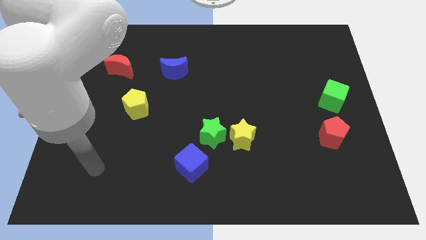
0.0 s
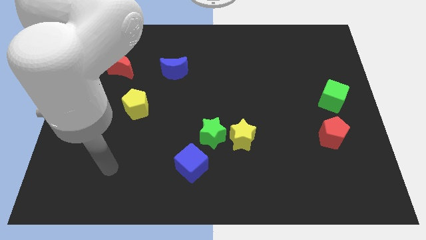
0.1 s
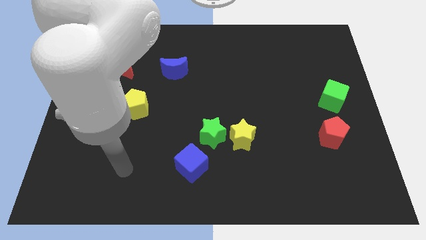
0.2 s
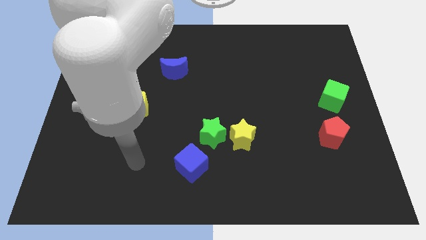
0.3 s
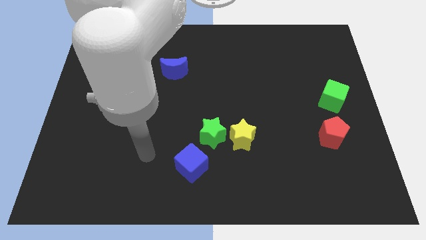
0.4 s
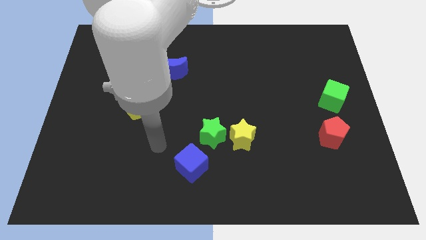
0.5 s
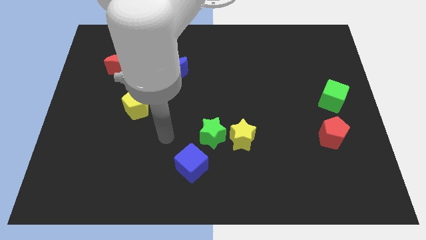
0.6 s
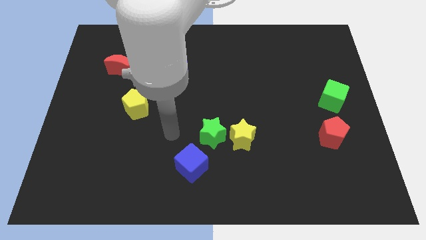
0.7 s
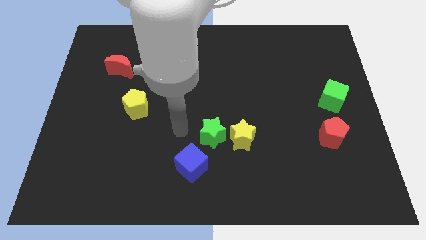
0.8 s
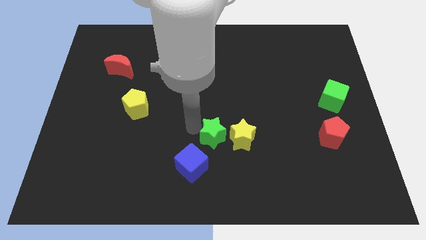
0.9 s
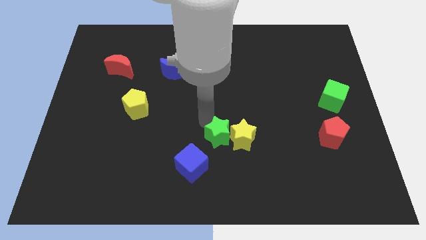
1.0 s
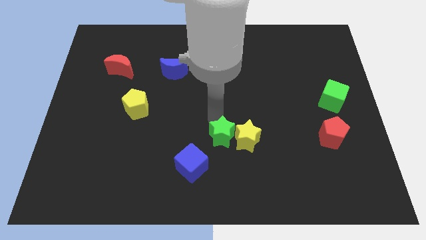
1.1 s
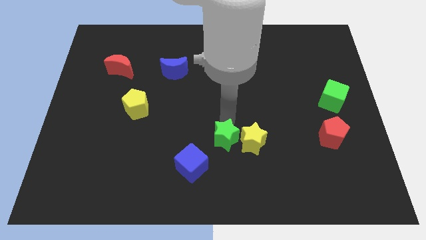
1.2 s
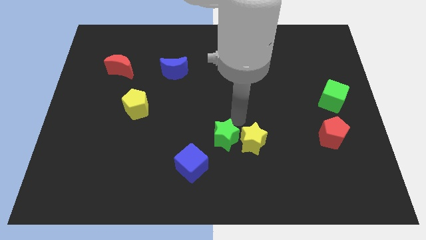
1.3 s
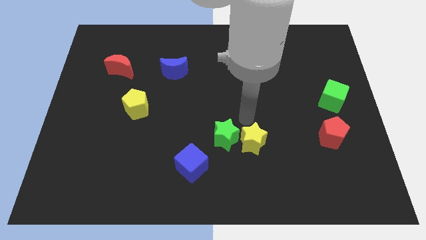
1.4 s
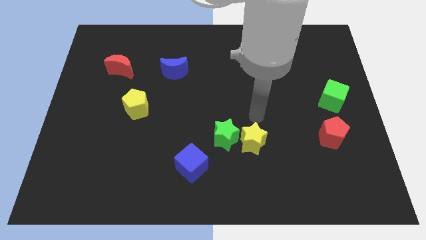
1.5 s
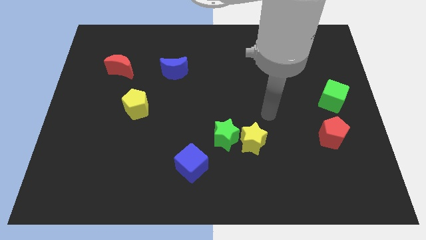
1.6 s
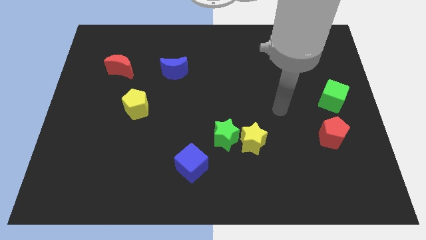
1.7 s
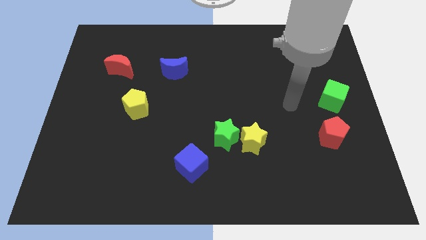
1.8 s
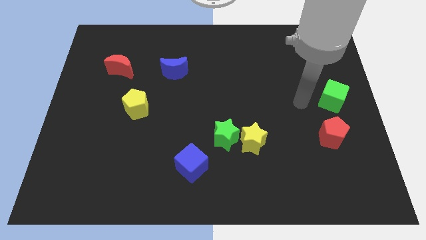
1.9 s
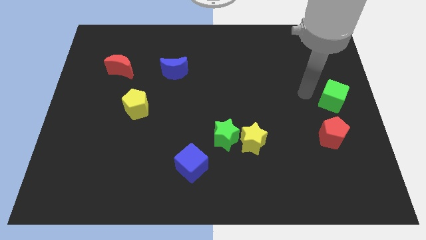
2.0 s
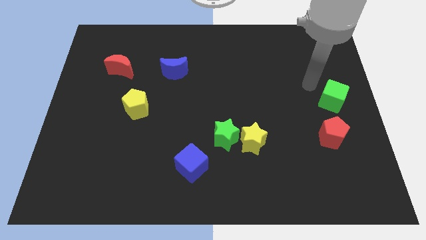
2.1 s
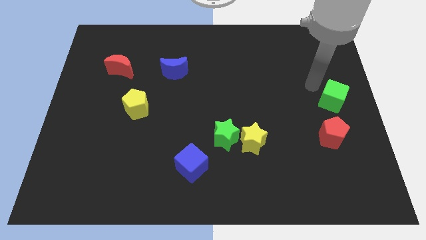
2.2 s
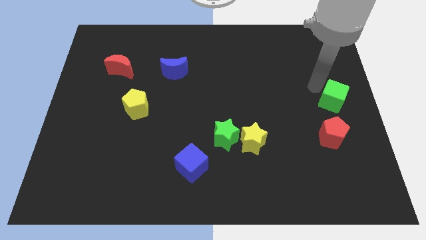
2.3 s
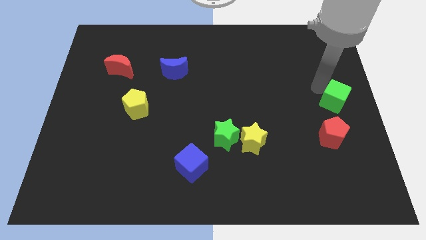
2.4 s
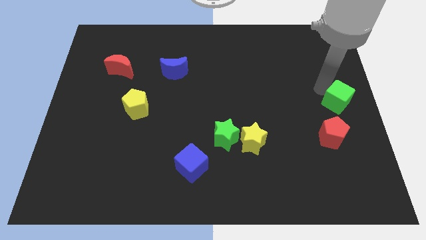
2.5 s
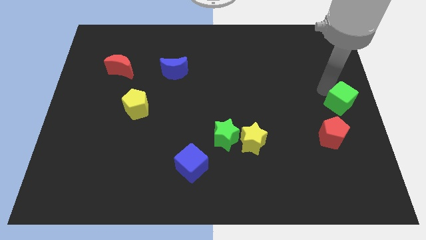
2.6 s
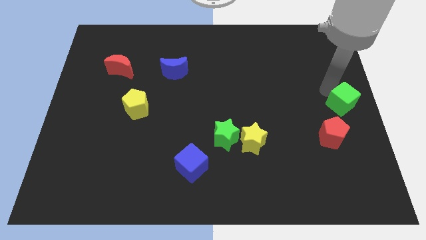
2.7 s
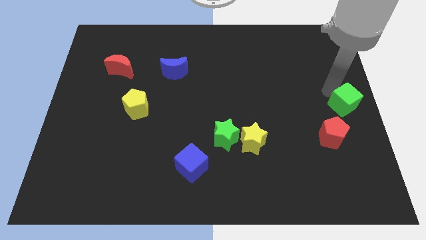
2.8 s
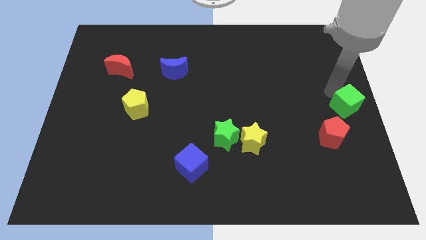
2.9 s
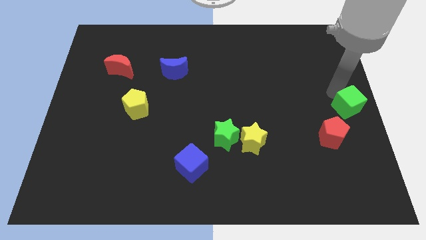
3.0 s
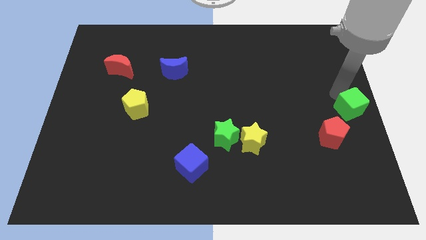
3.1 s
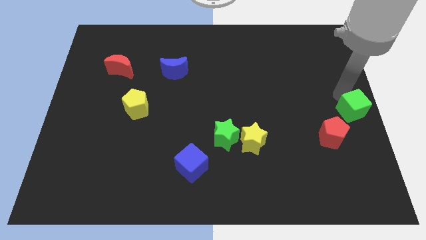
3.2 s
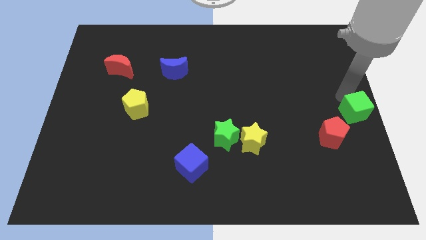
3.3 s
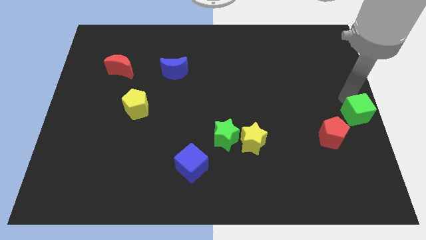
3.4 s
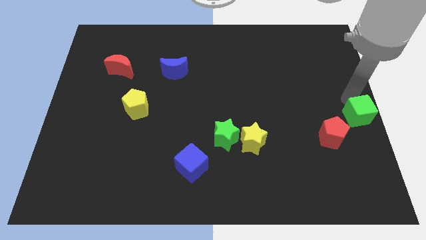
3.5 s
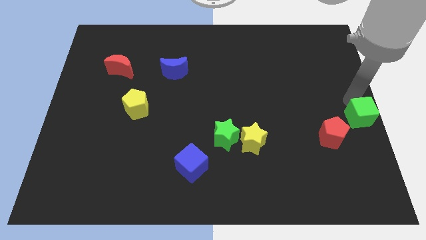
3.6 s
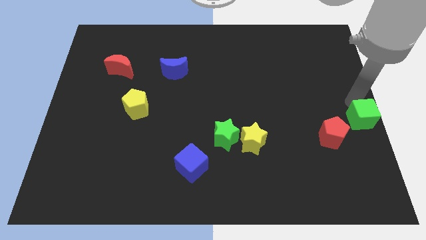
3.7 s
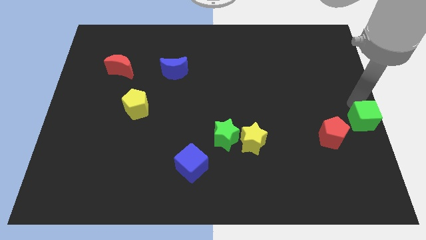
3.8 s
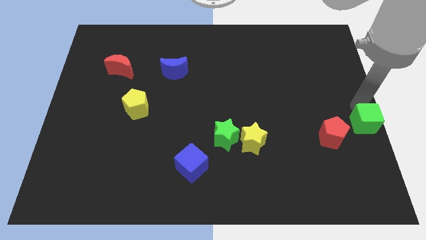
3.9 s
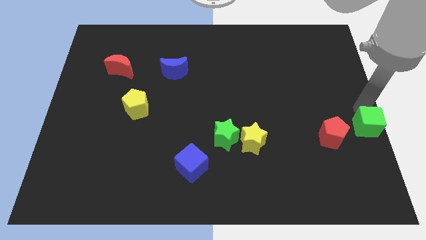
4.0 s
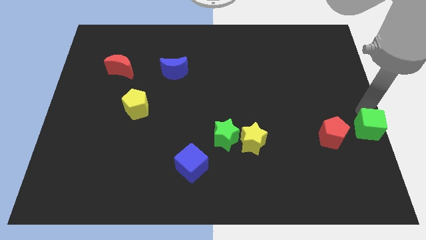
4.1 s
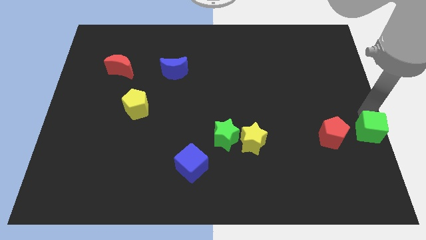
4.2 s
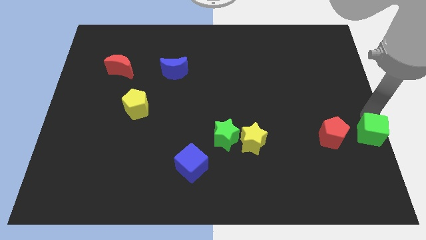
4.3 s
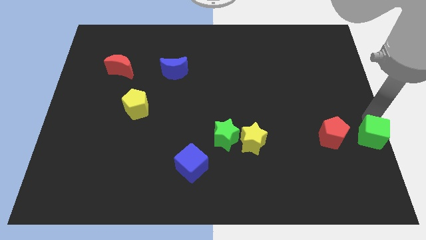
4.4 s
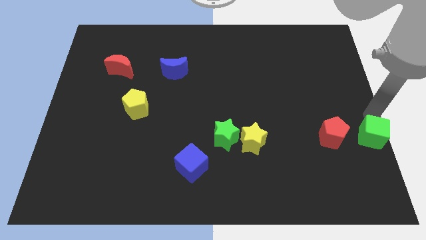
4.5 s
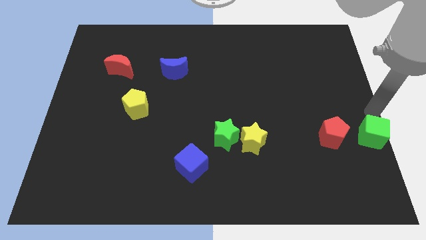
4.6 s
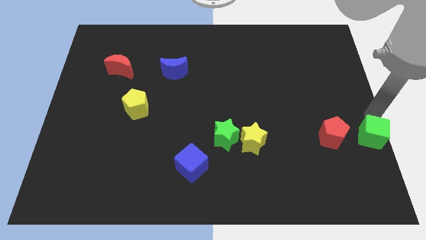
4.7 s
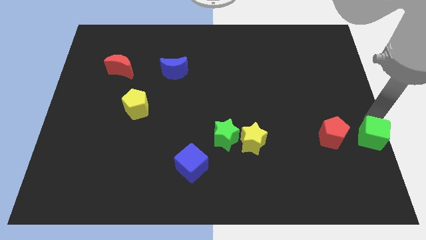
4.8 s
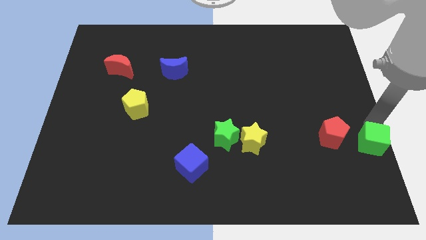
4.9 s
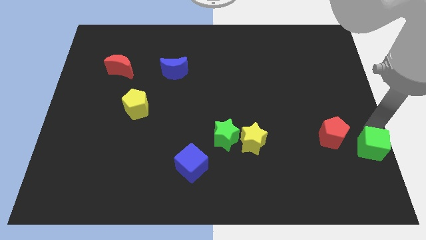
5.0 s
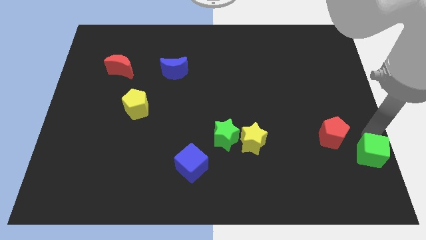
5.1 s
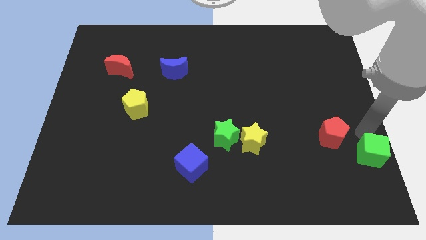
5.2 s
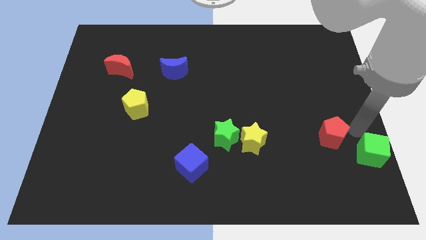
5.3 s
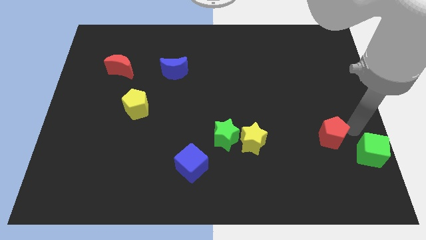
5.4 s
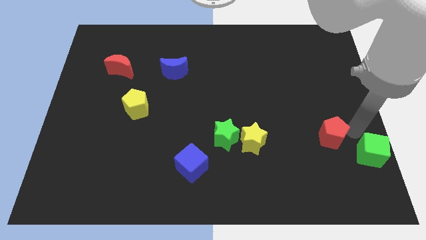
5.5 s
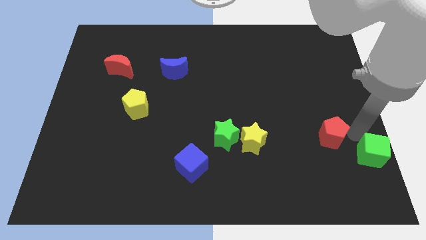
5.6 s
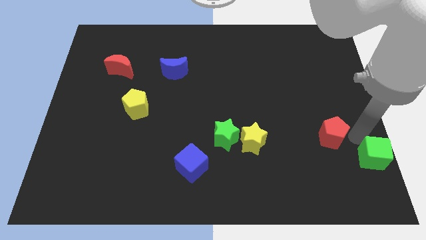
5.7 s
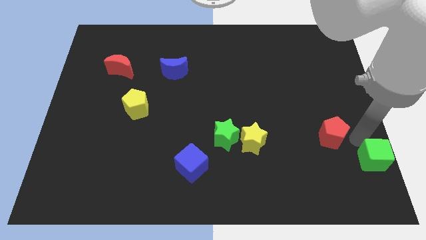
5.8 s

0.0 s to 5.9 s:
slide the green cube to the lower right corner

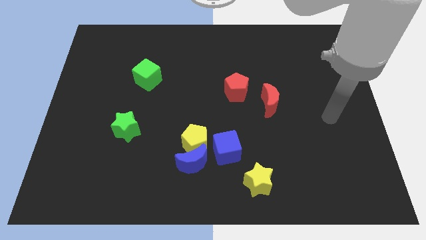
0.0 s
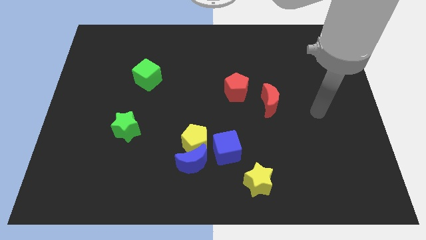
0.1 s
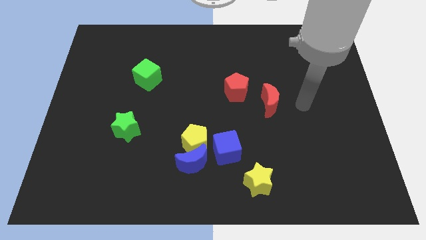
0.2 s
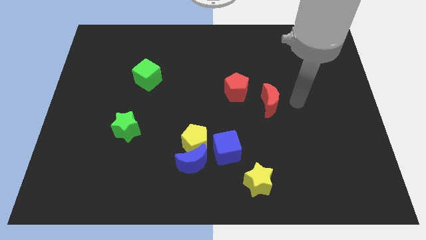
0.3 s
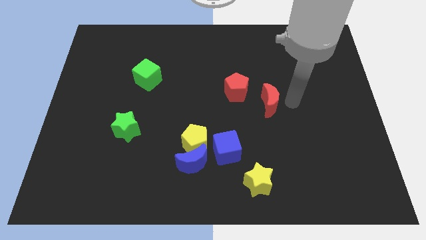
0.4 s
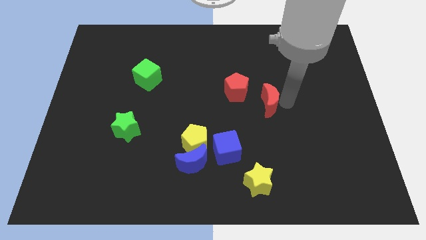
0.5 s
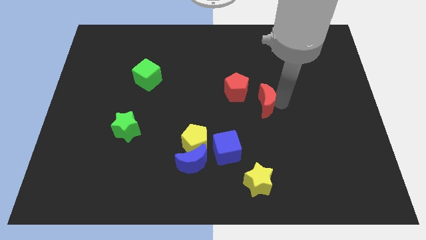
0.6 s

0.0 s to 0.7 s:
slide the red moon to the center

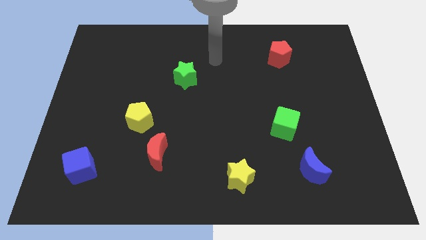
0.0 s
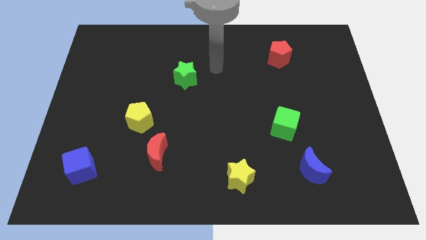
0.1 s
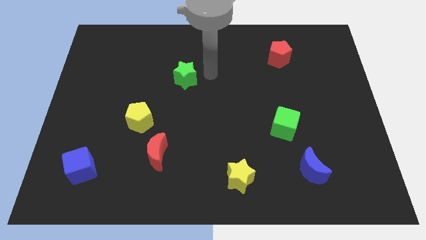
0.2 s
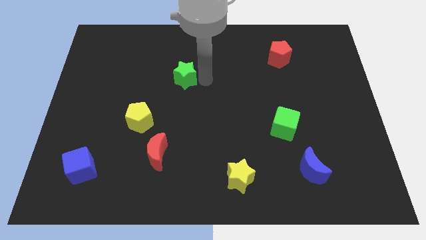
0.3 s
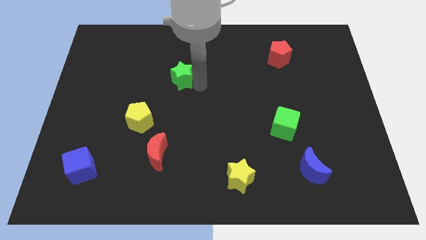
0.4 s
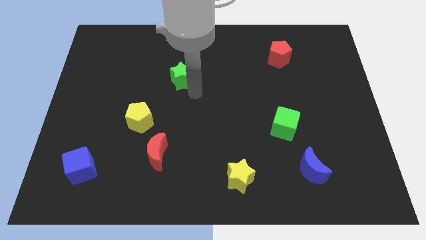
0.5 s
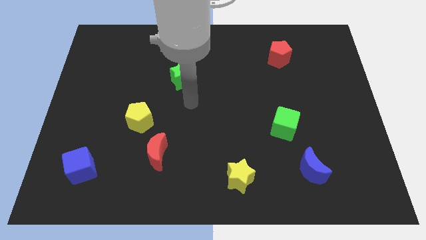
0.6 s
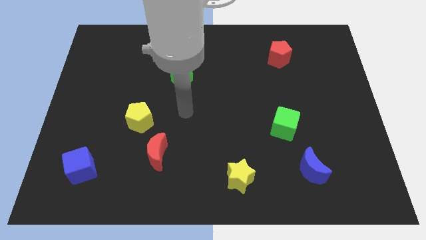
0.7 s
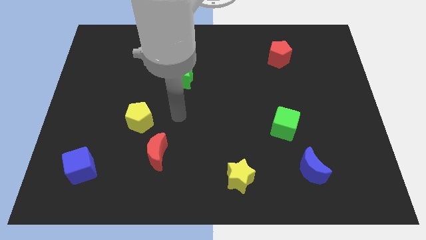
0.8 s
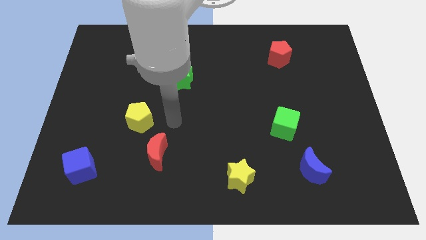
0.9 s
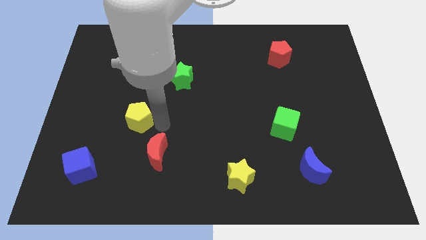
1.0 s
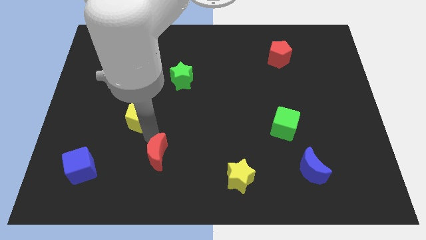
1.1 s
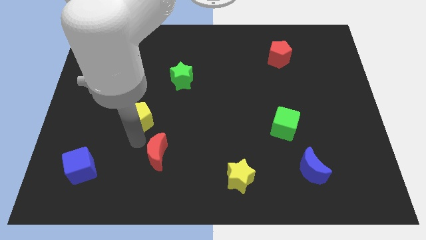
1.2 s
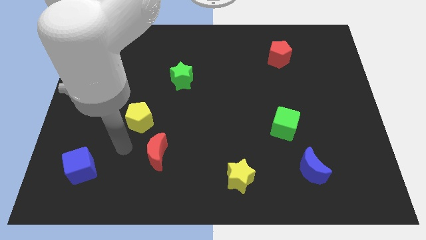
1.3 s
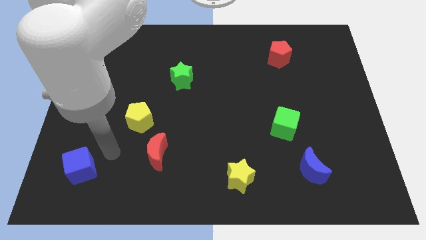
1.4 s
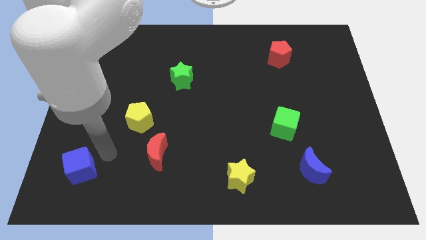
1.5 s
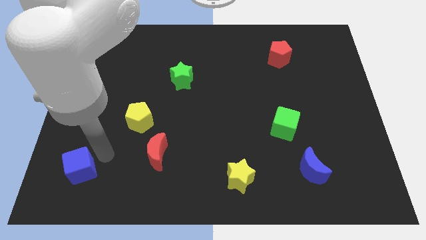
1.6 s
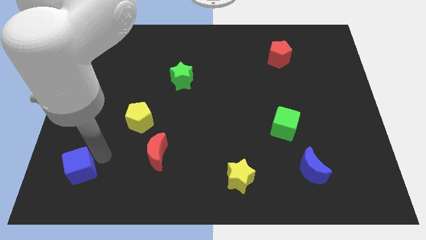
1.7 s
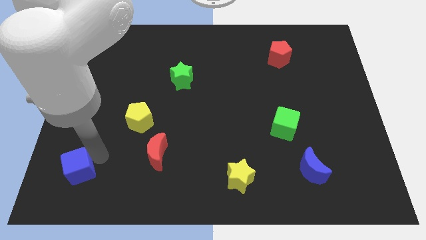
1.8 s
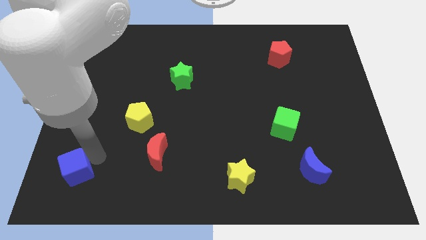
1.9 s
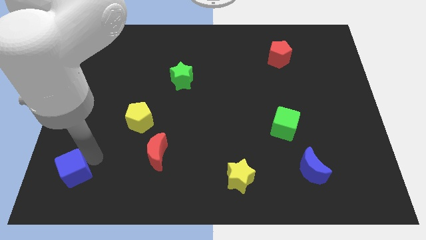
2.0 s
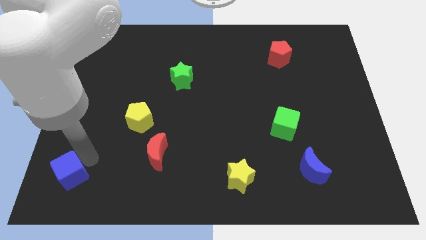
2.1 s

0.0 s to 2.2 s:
put the blue cube to the bottom left corner
